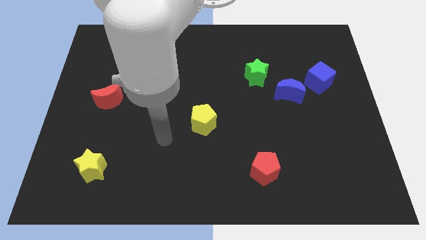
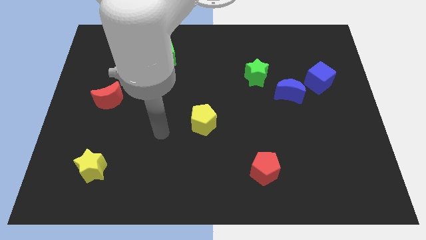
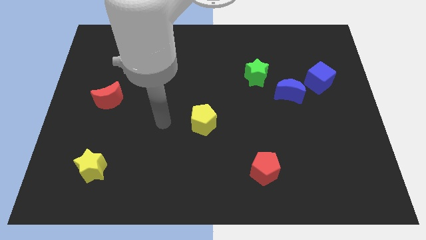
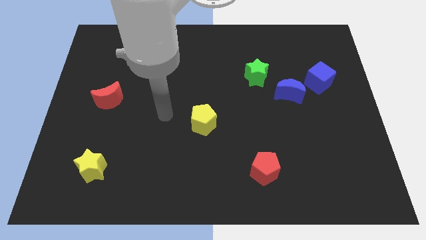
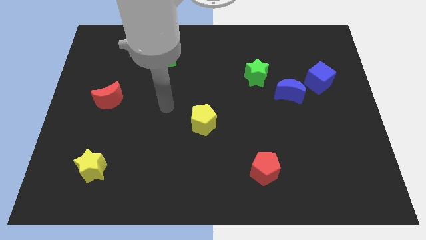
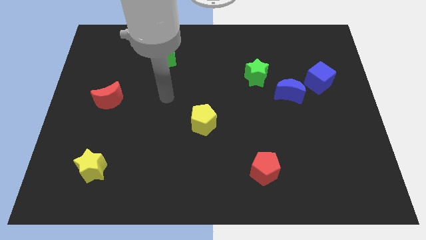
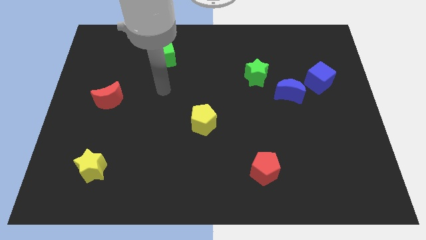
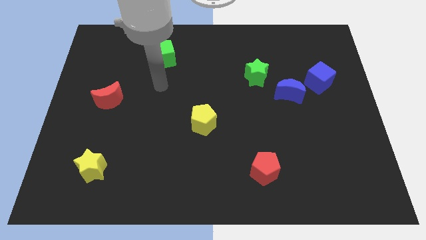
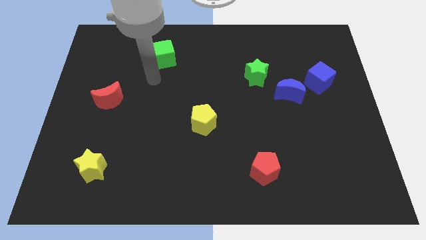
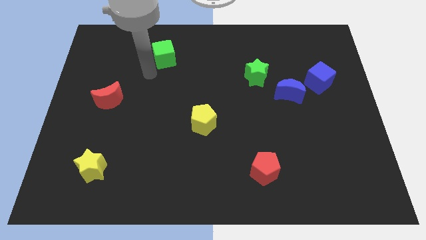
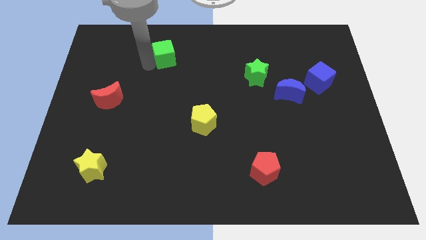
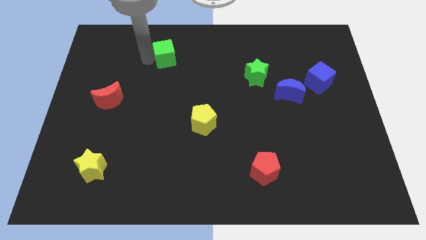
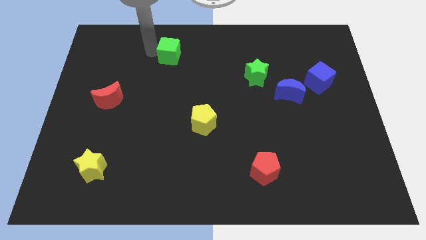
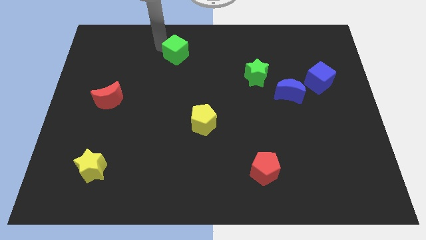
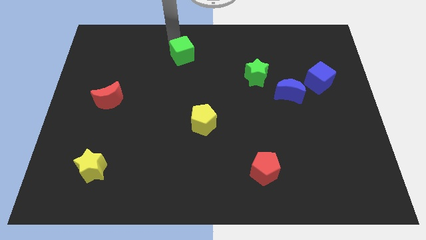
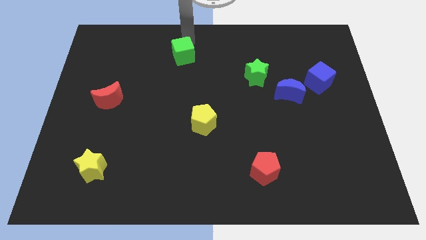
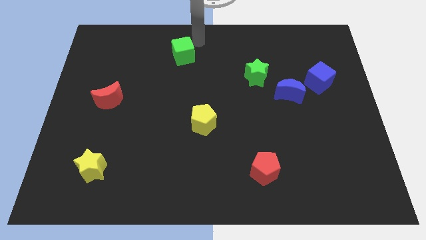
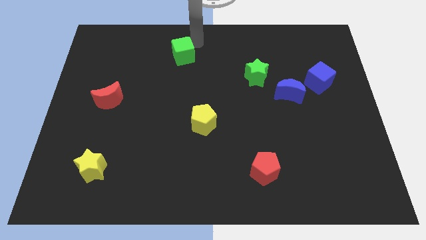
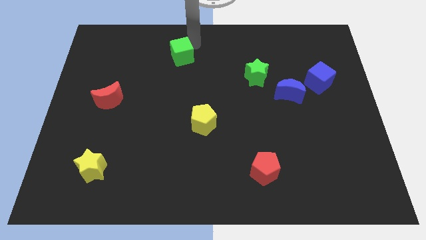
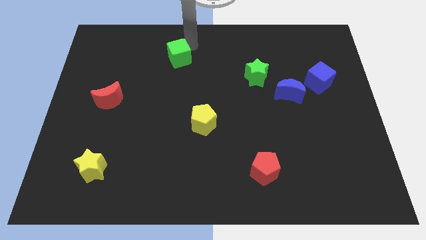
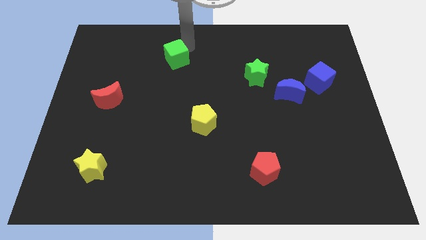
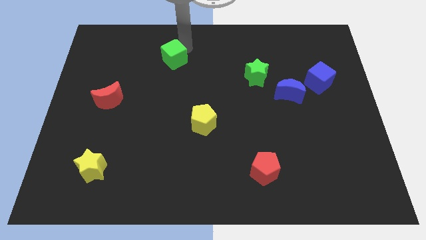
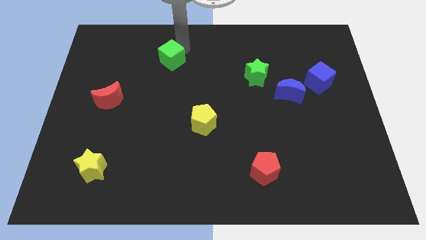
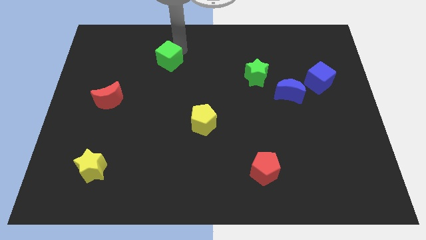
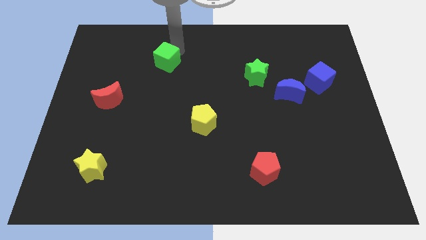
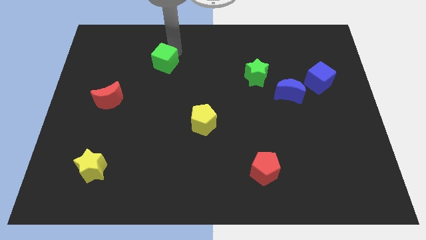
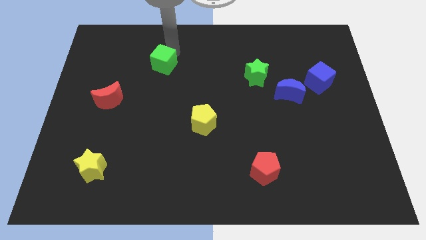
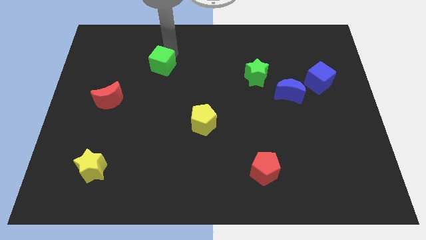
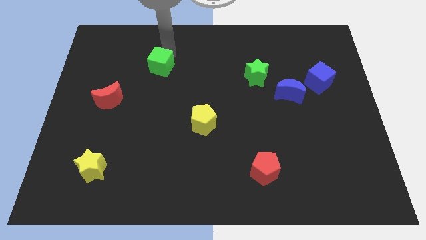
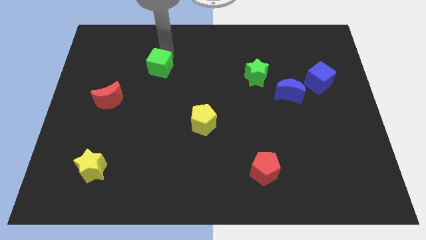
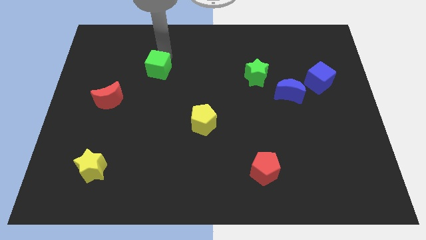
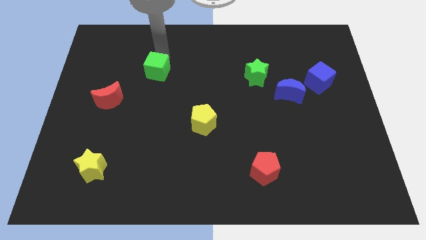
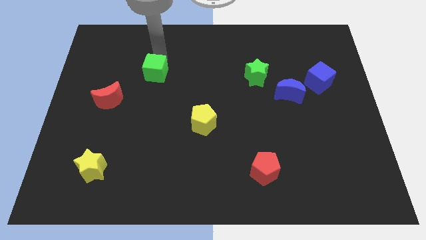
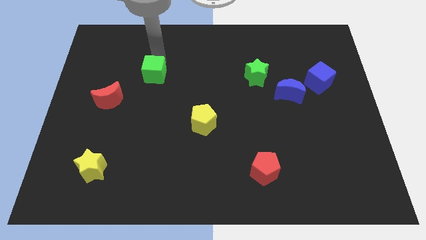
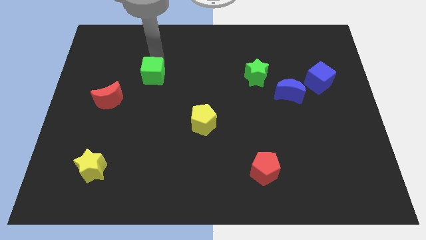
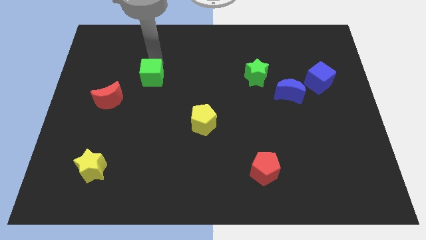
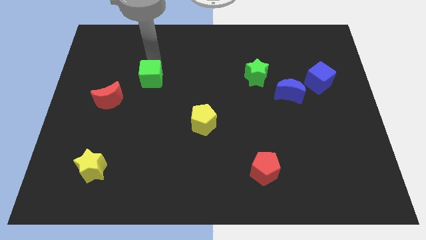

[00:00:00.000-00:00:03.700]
slide the green cube downwards slightly

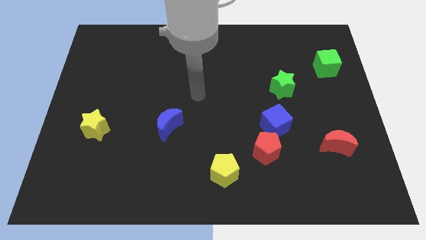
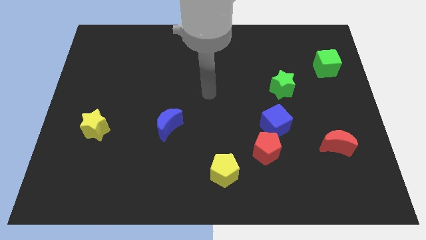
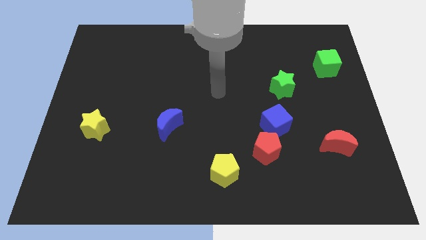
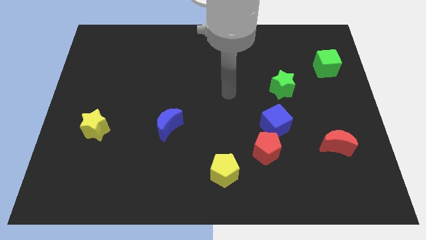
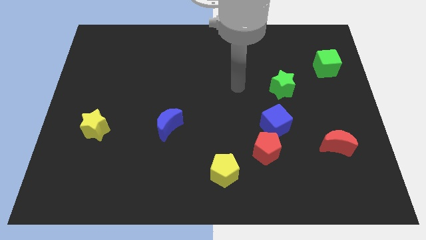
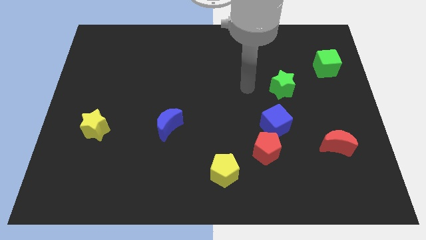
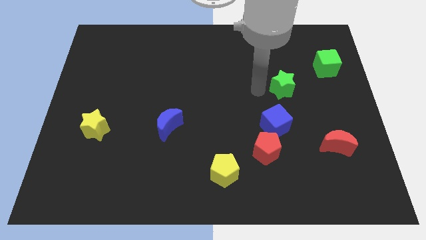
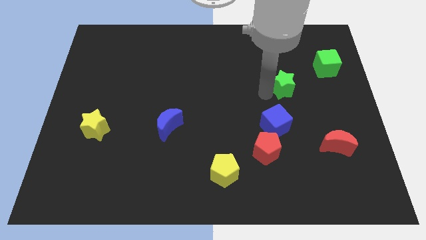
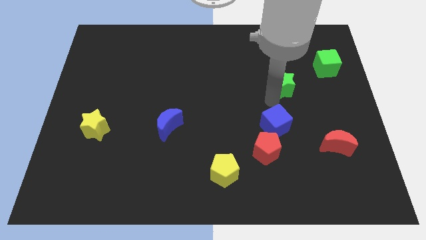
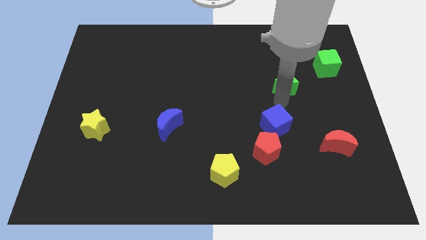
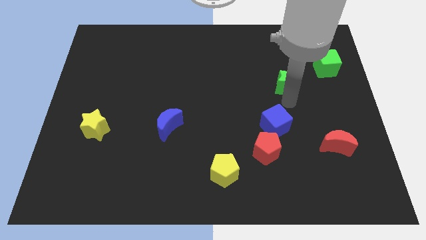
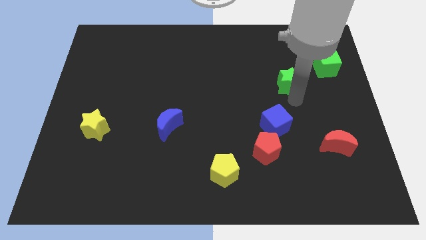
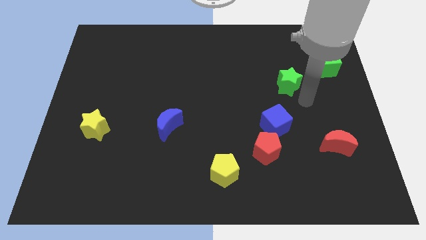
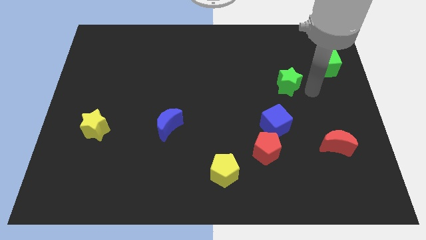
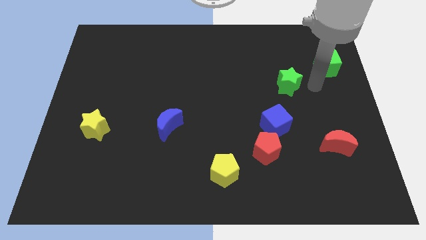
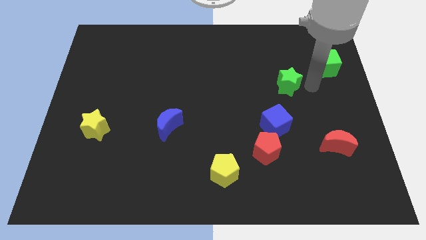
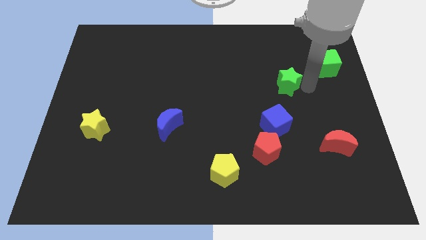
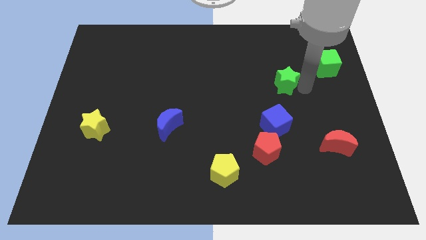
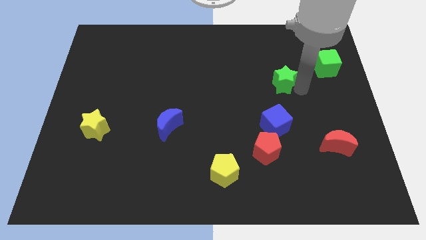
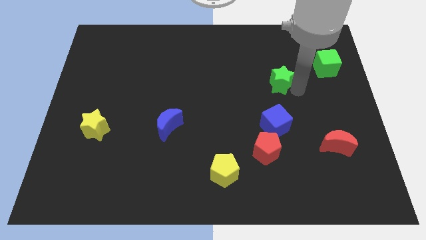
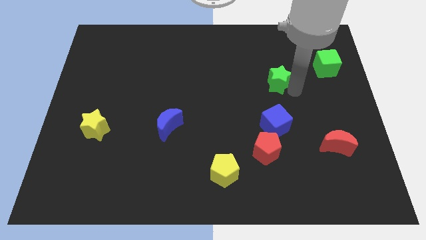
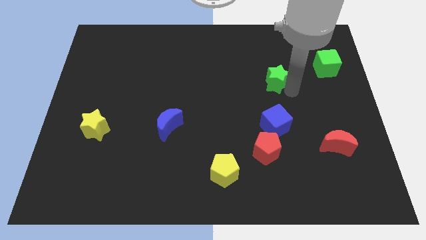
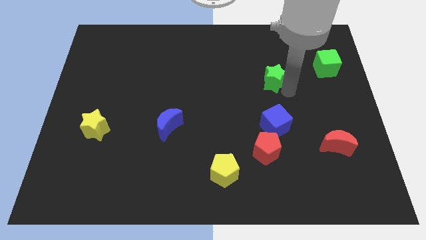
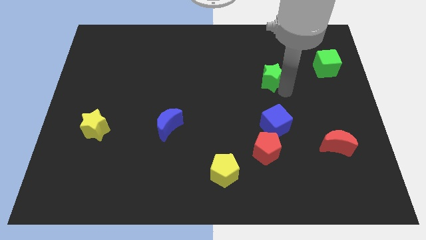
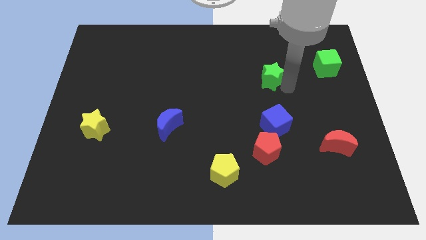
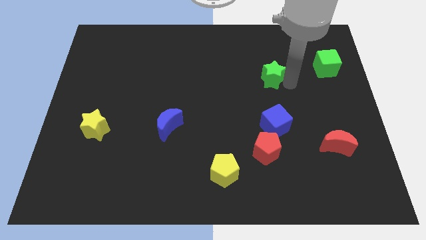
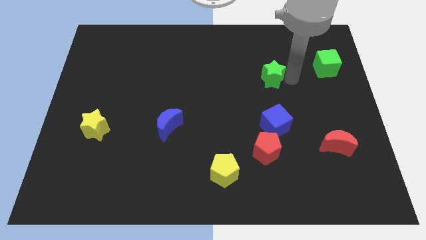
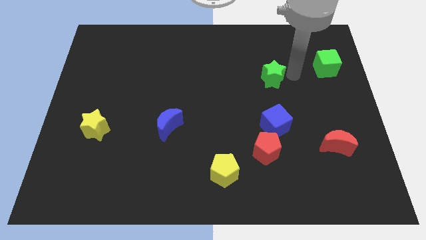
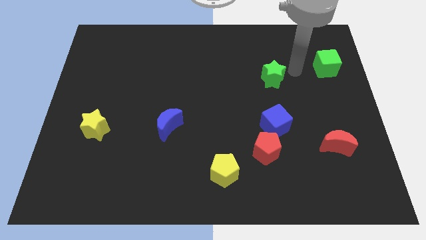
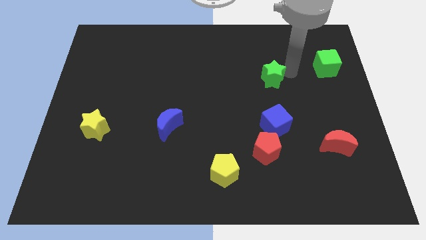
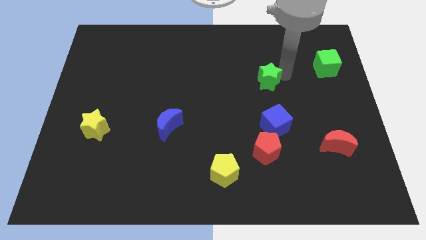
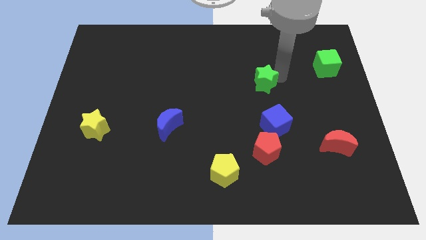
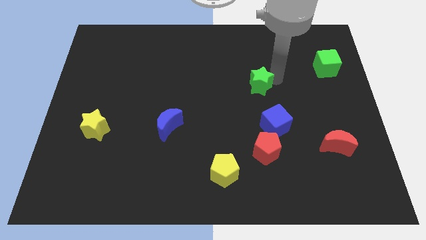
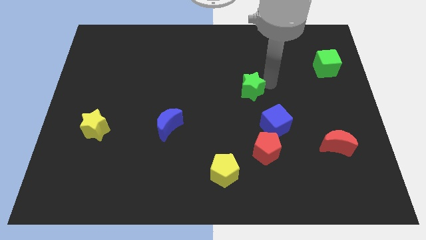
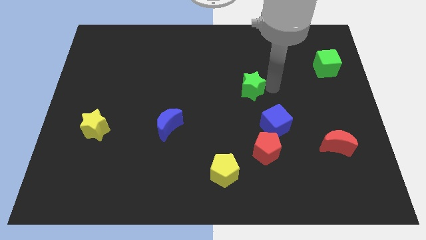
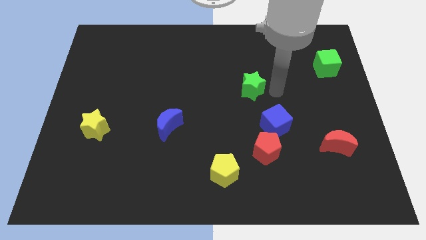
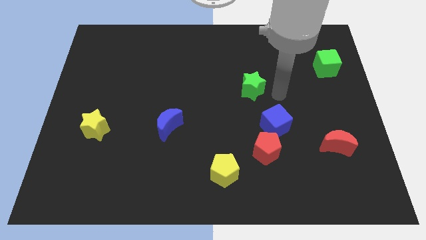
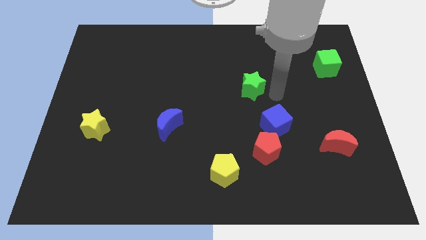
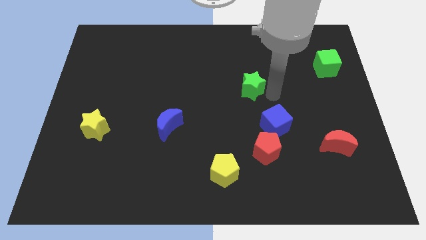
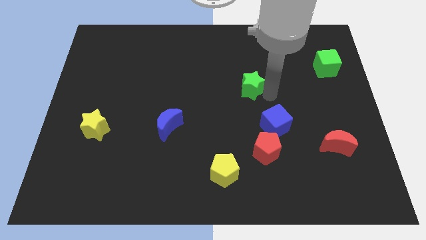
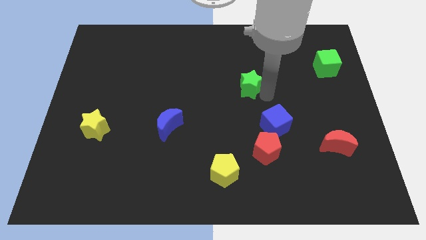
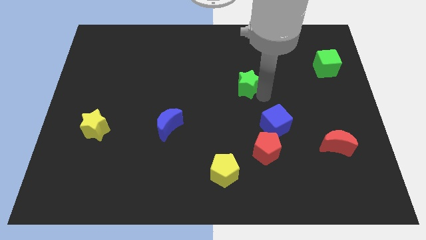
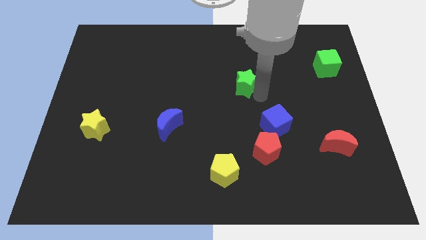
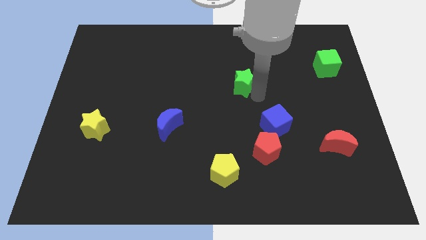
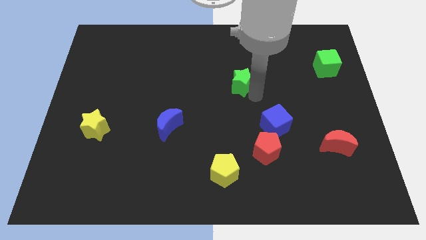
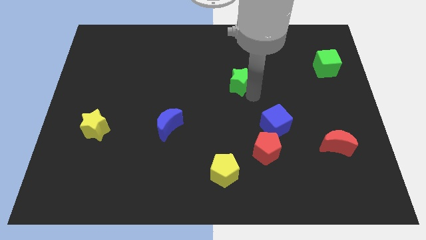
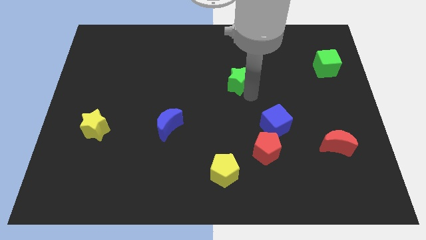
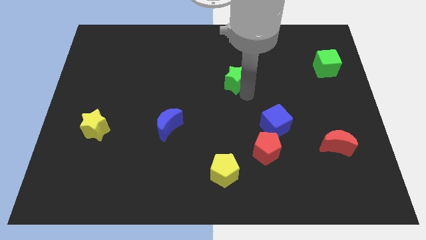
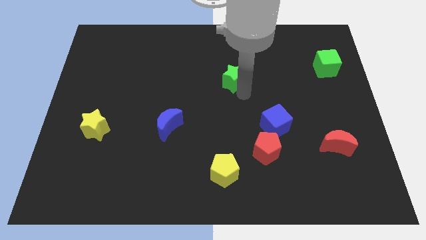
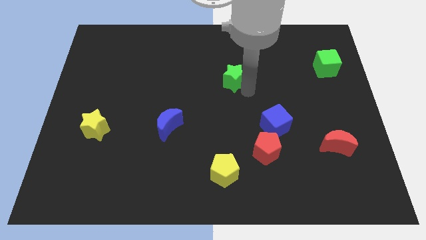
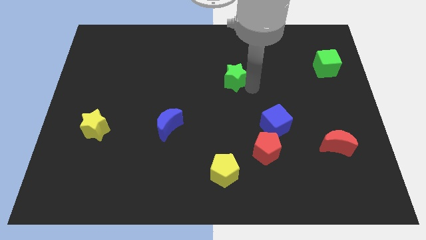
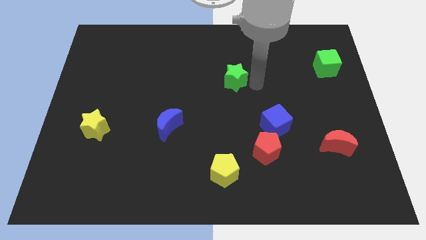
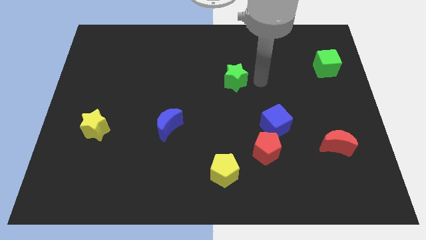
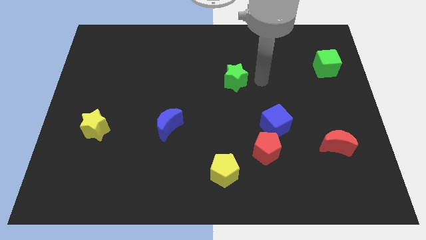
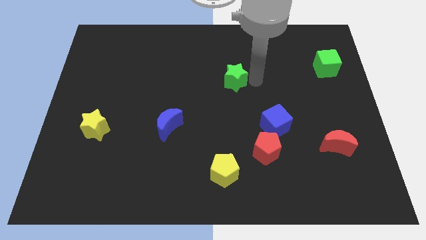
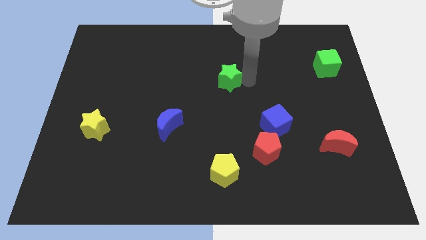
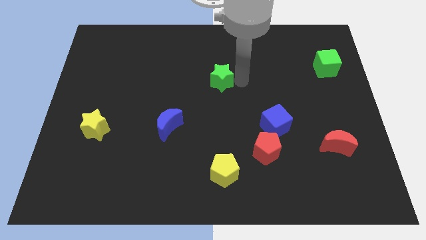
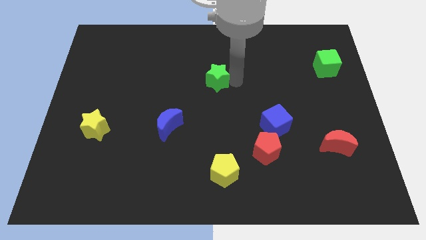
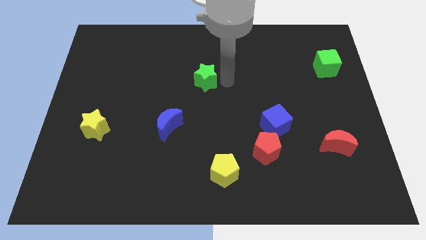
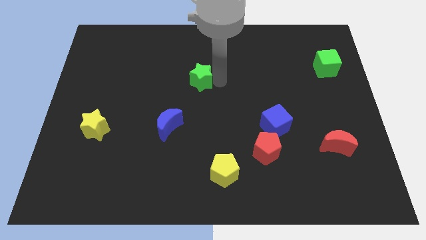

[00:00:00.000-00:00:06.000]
move the green star left
